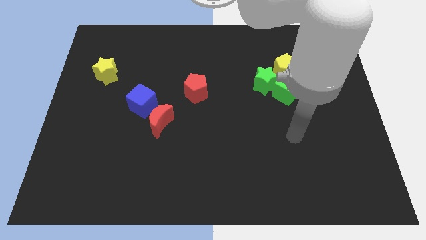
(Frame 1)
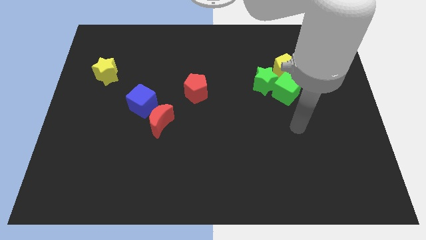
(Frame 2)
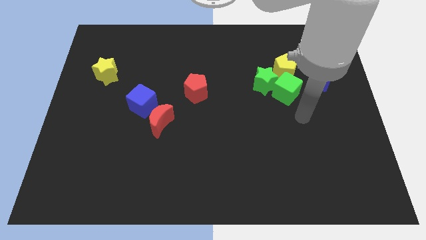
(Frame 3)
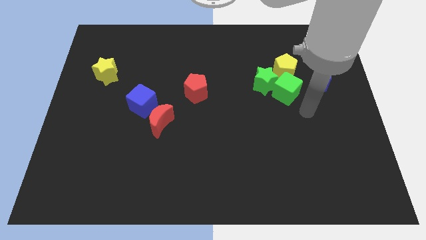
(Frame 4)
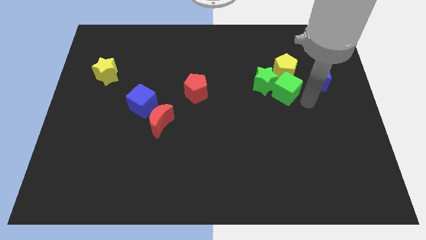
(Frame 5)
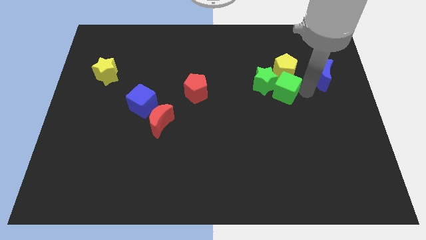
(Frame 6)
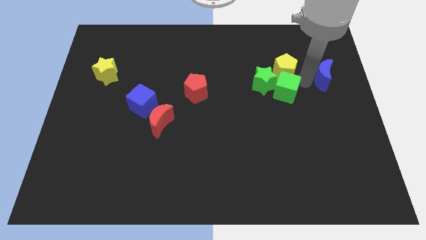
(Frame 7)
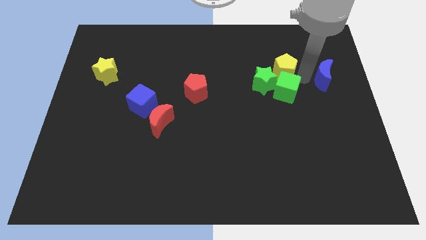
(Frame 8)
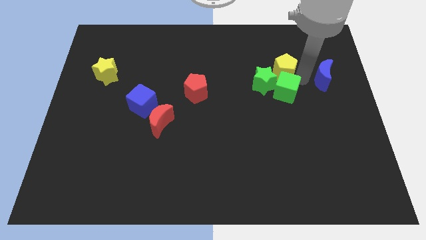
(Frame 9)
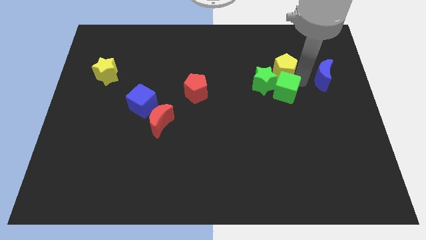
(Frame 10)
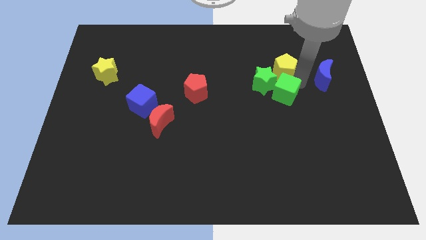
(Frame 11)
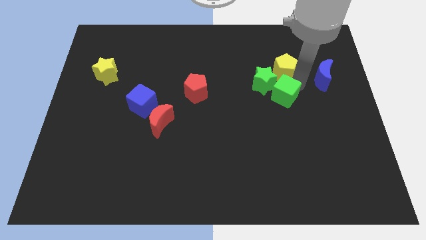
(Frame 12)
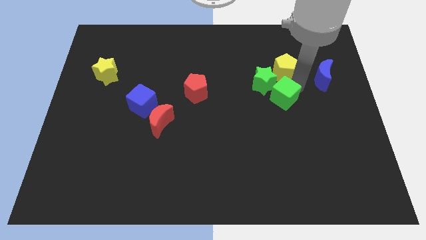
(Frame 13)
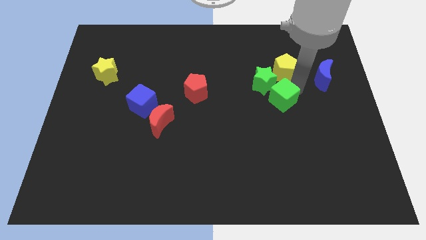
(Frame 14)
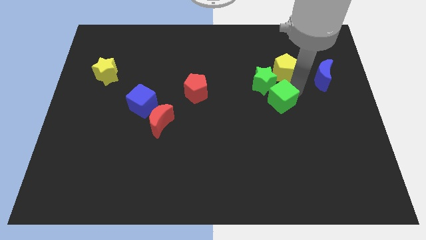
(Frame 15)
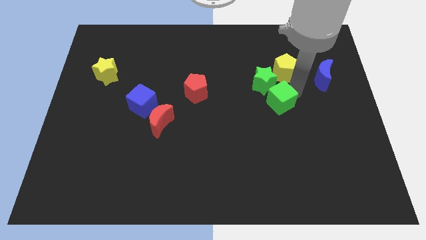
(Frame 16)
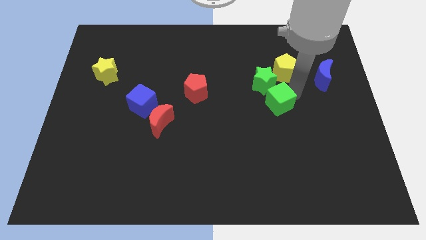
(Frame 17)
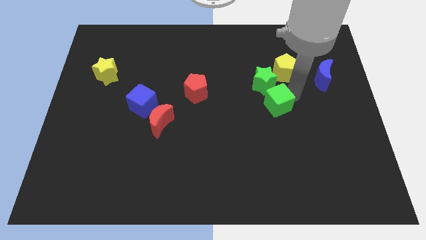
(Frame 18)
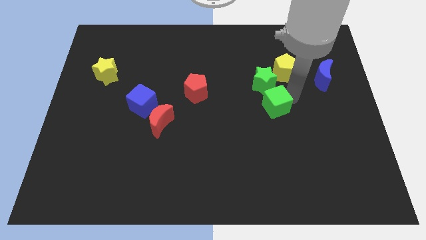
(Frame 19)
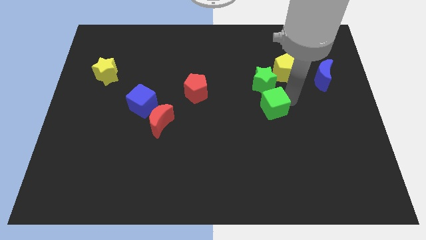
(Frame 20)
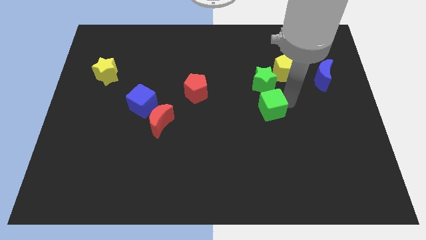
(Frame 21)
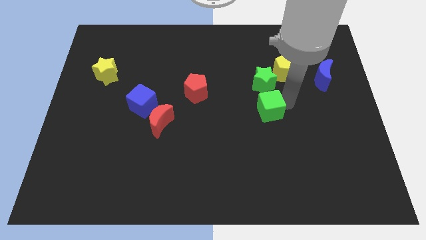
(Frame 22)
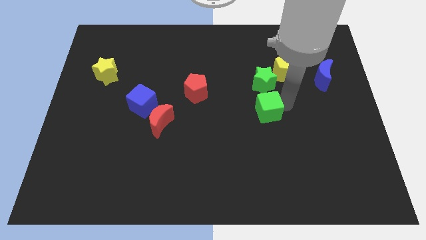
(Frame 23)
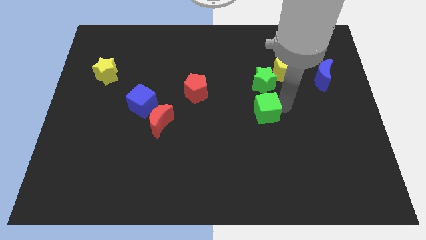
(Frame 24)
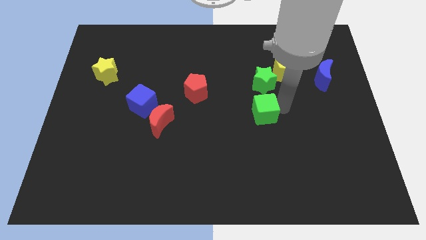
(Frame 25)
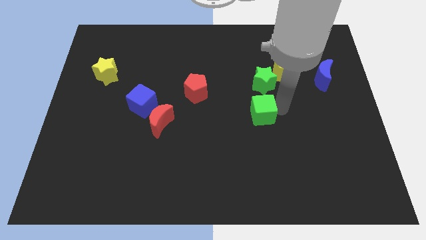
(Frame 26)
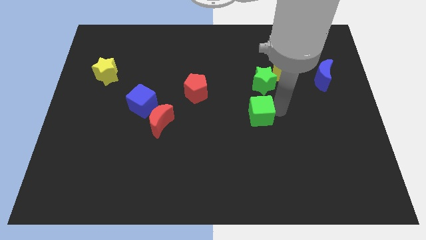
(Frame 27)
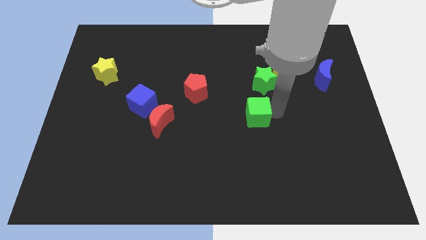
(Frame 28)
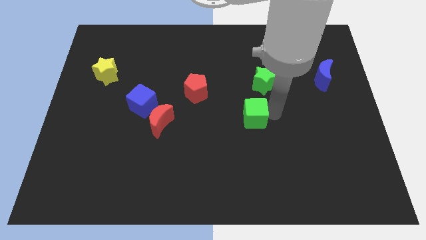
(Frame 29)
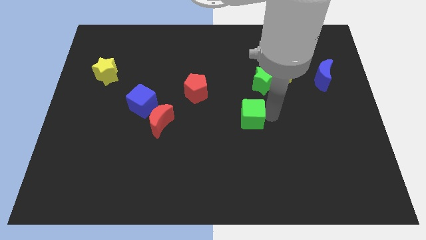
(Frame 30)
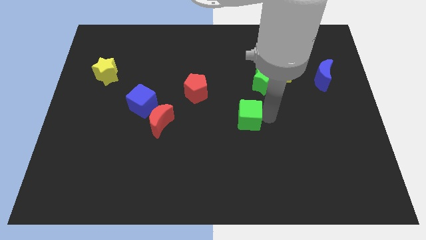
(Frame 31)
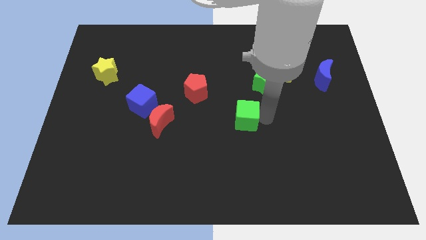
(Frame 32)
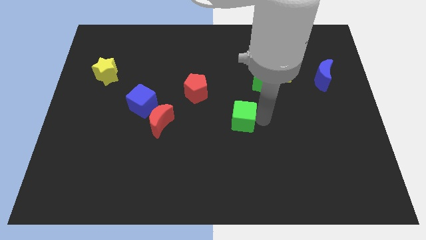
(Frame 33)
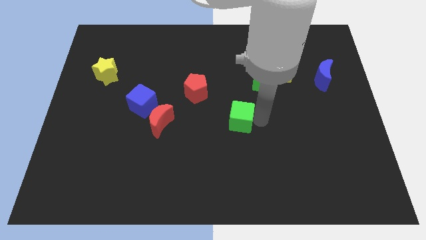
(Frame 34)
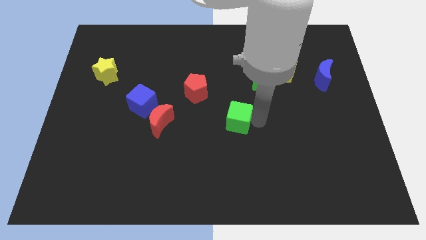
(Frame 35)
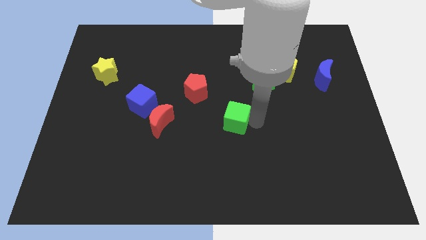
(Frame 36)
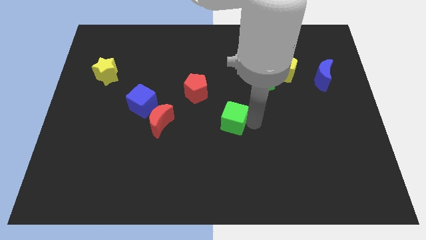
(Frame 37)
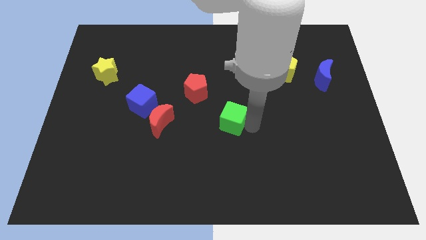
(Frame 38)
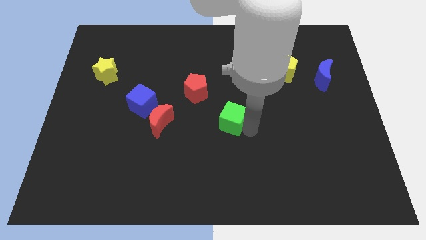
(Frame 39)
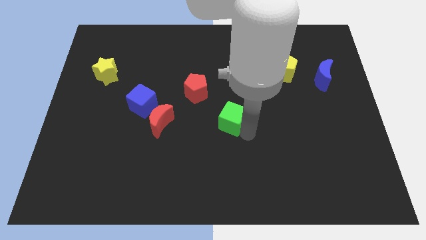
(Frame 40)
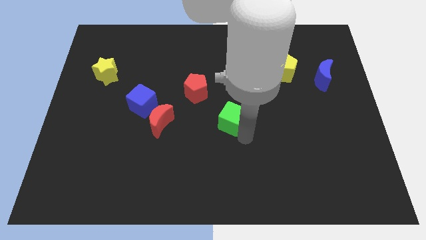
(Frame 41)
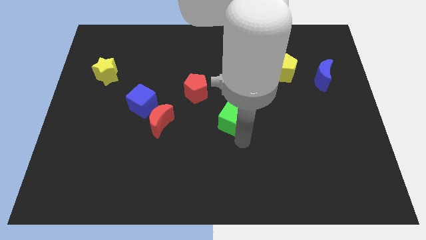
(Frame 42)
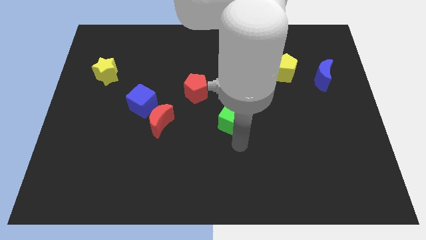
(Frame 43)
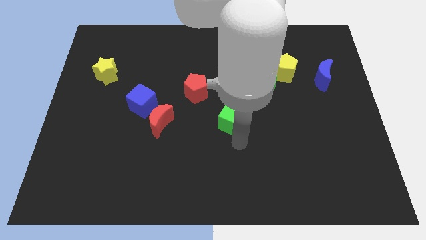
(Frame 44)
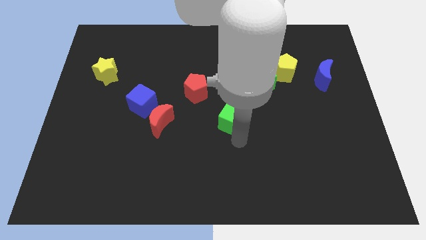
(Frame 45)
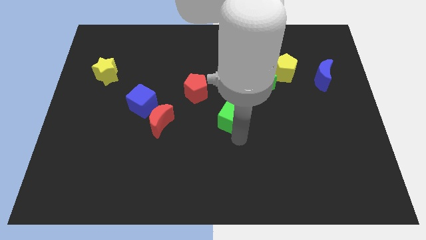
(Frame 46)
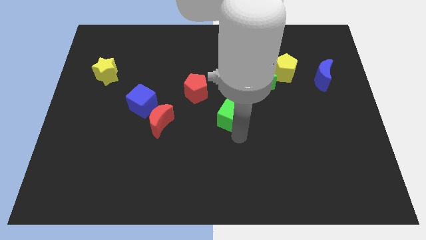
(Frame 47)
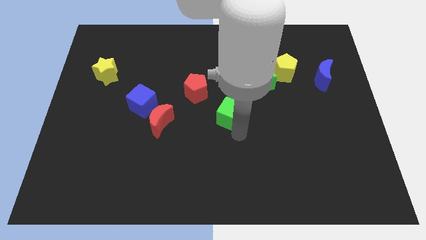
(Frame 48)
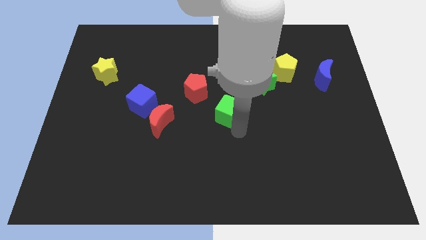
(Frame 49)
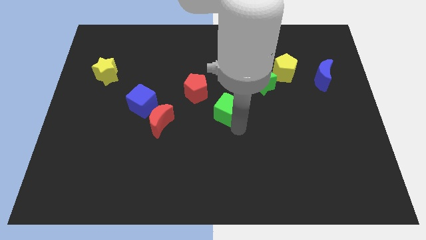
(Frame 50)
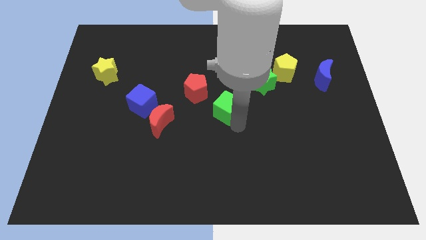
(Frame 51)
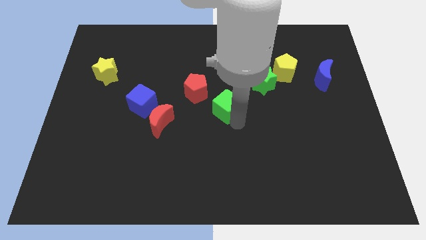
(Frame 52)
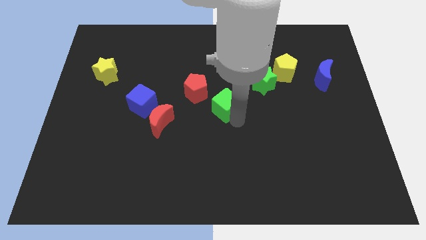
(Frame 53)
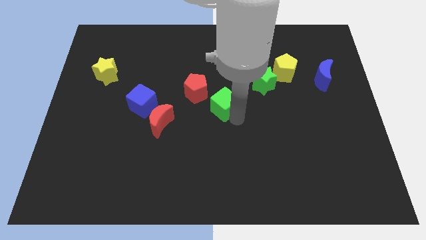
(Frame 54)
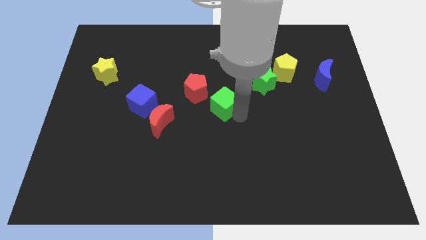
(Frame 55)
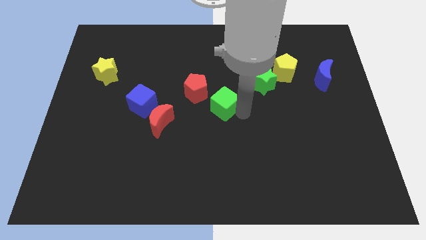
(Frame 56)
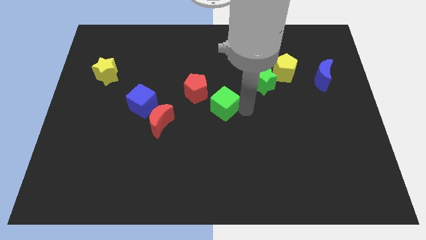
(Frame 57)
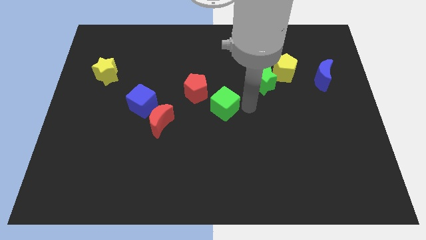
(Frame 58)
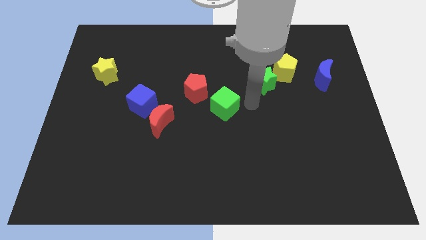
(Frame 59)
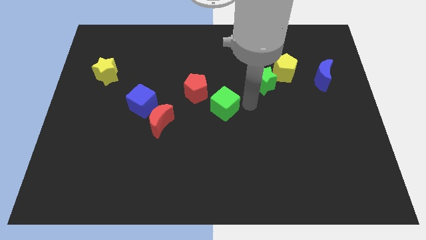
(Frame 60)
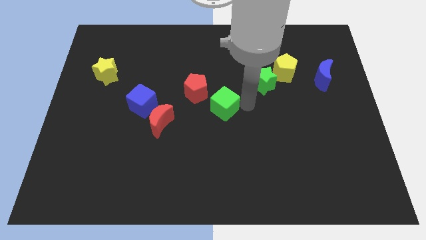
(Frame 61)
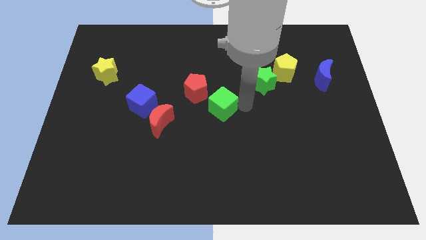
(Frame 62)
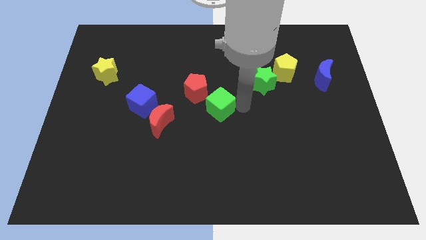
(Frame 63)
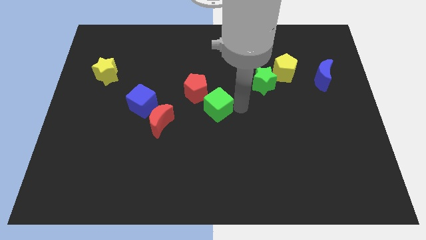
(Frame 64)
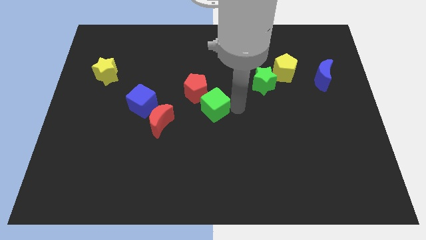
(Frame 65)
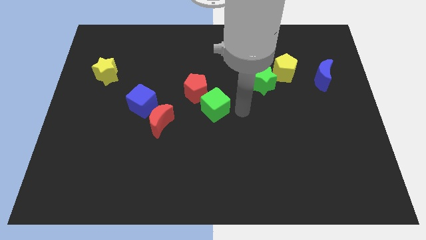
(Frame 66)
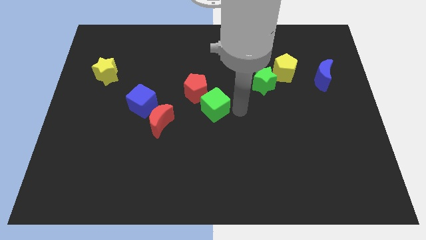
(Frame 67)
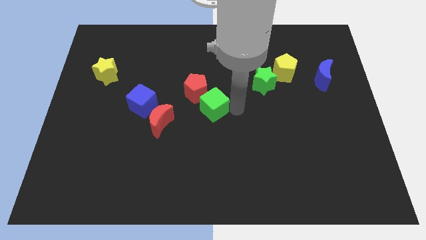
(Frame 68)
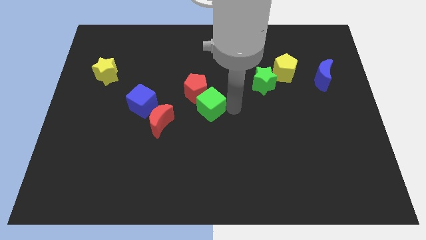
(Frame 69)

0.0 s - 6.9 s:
slide the green cube to the right side of the blue cube
